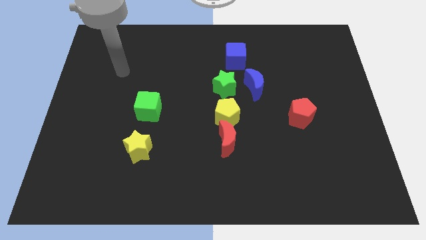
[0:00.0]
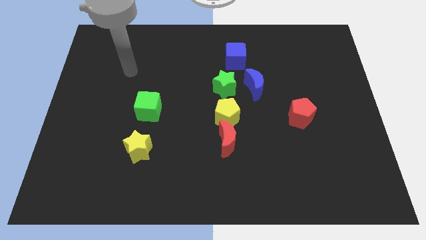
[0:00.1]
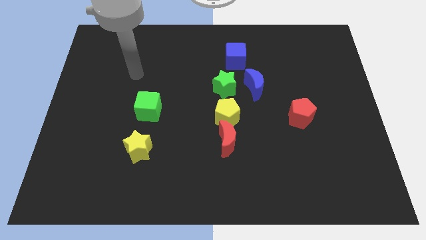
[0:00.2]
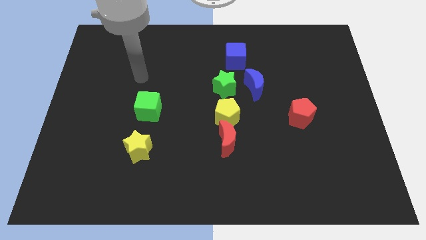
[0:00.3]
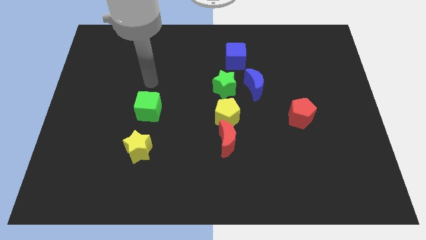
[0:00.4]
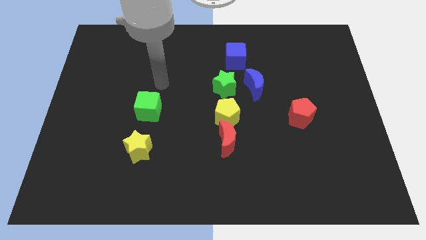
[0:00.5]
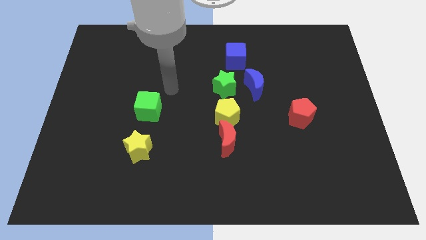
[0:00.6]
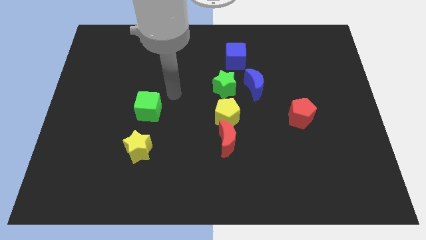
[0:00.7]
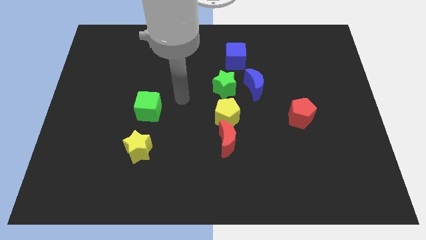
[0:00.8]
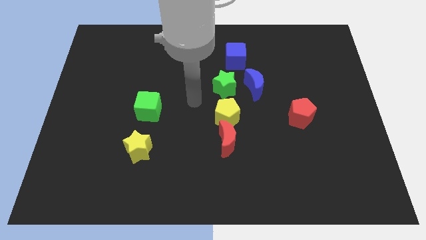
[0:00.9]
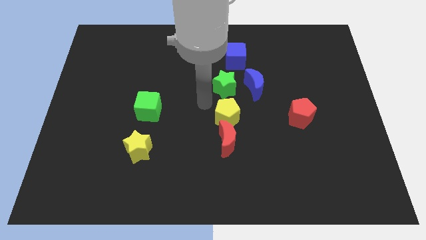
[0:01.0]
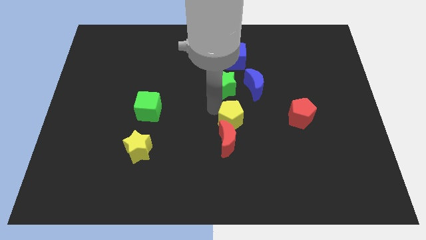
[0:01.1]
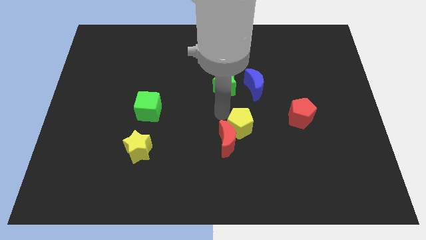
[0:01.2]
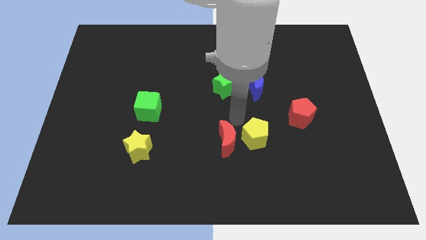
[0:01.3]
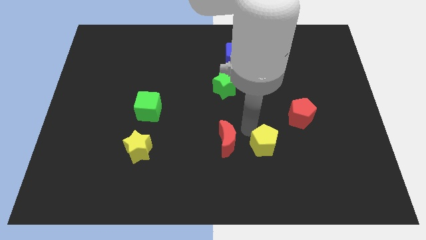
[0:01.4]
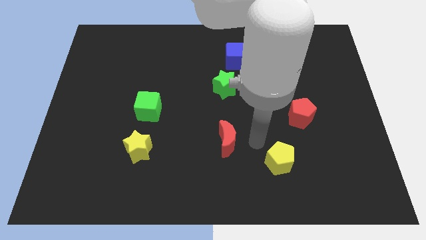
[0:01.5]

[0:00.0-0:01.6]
pull the red moon apart from the yellow pentagon

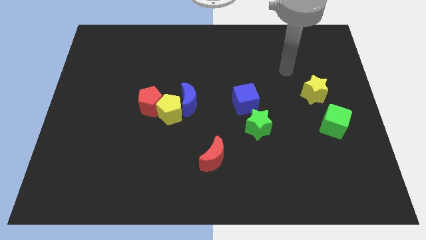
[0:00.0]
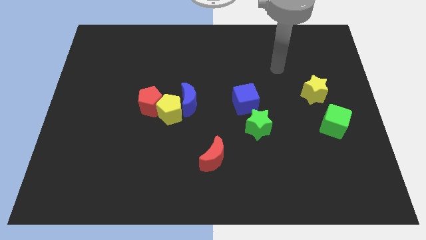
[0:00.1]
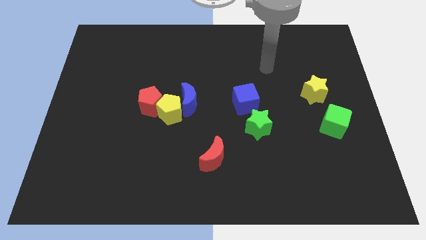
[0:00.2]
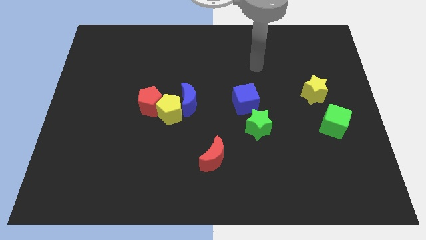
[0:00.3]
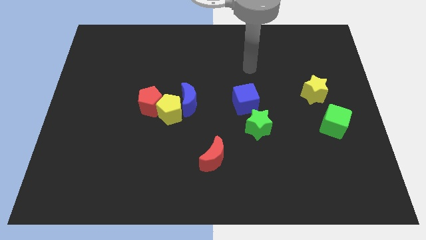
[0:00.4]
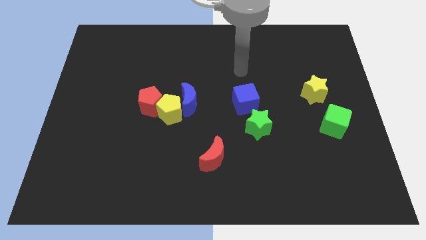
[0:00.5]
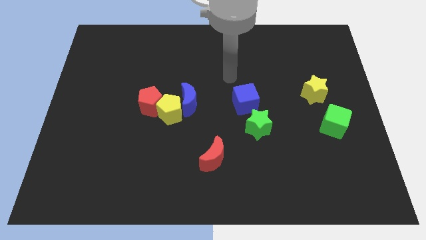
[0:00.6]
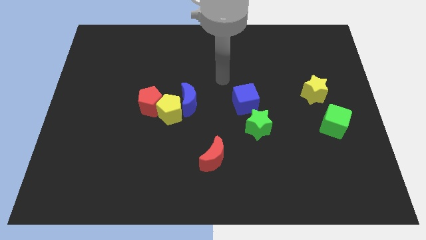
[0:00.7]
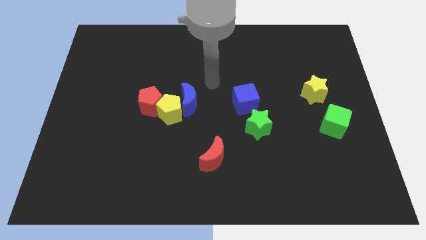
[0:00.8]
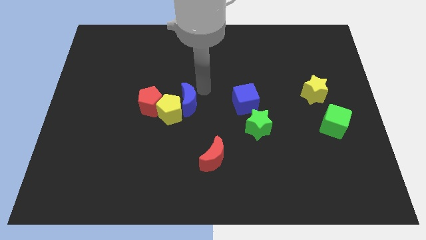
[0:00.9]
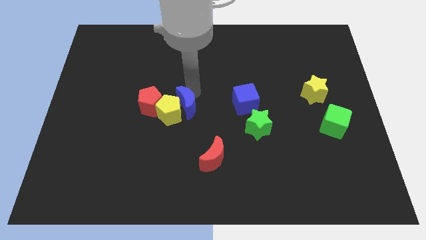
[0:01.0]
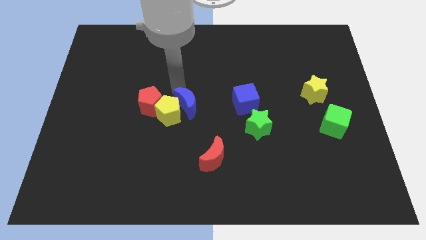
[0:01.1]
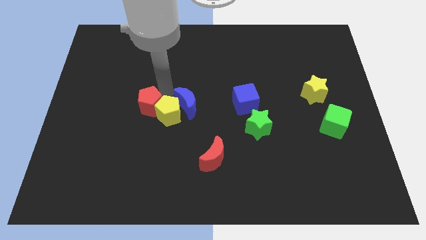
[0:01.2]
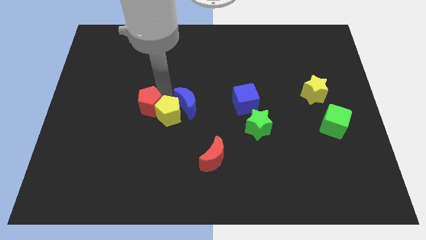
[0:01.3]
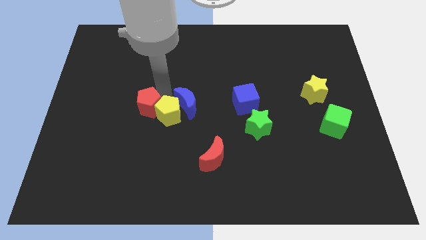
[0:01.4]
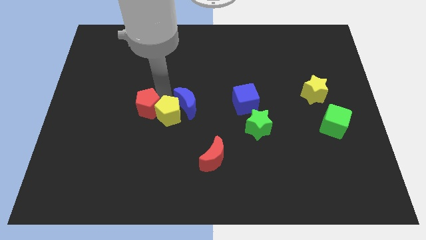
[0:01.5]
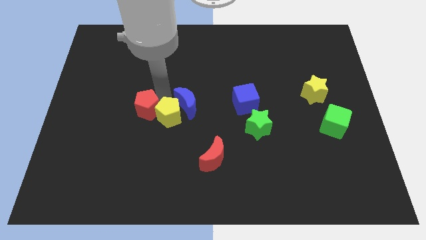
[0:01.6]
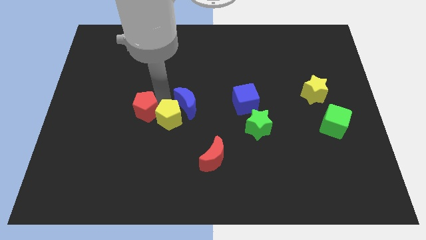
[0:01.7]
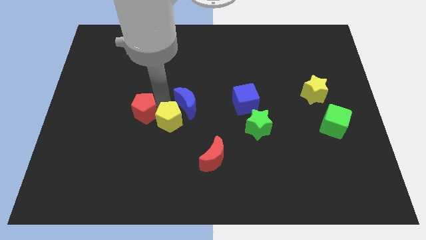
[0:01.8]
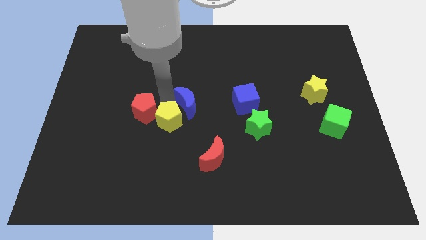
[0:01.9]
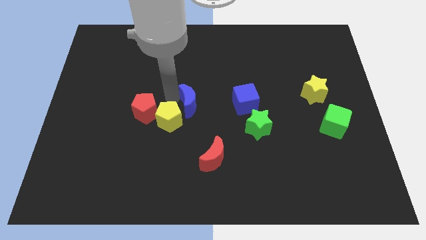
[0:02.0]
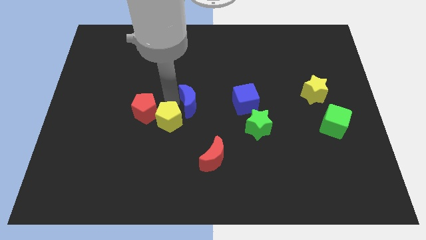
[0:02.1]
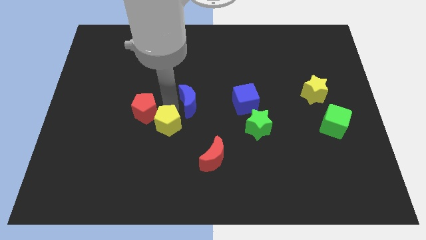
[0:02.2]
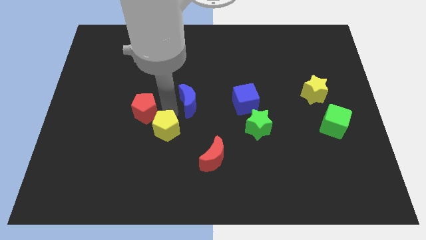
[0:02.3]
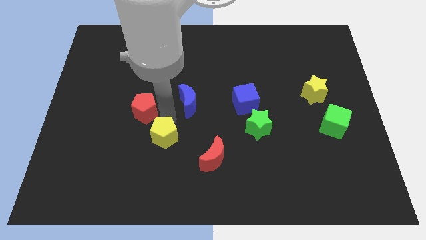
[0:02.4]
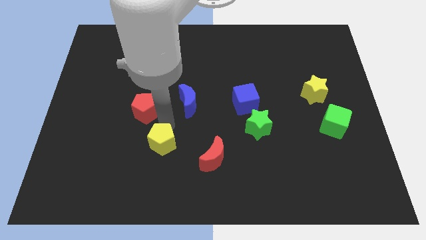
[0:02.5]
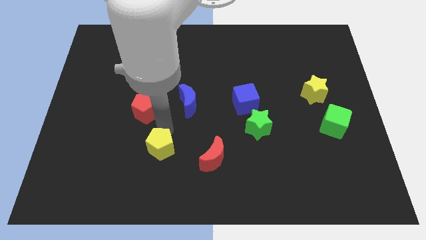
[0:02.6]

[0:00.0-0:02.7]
move the yellow pentagon away from the blue moon and red pentagon

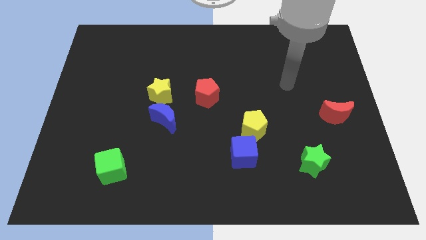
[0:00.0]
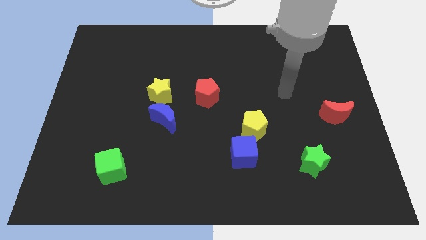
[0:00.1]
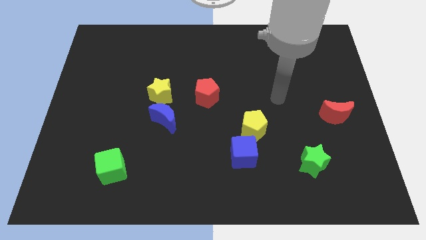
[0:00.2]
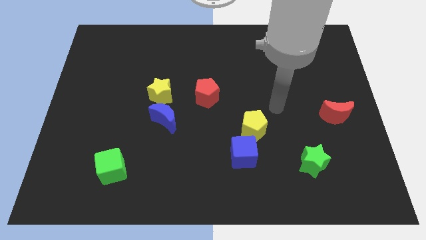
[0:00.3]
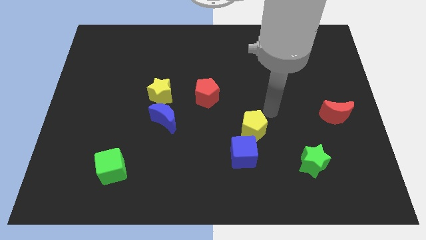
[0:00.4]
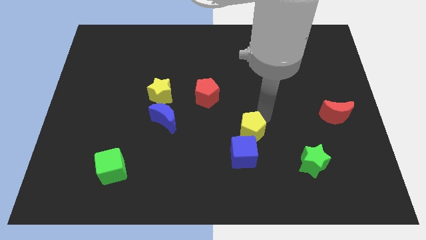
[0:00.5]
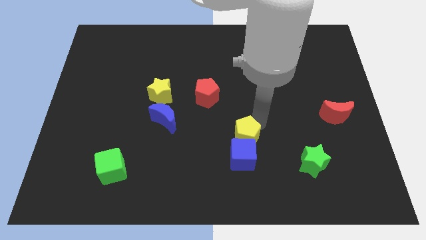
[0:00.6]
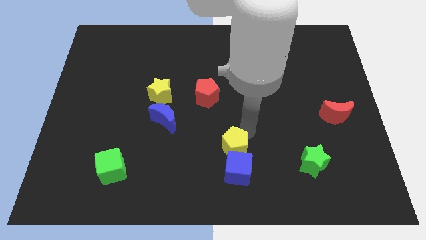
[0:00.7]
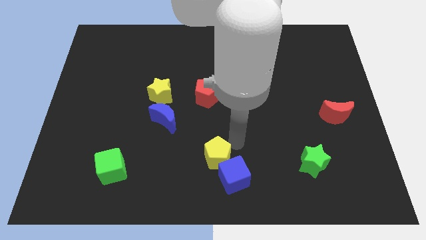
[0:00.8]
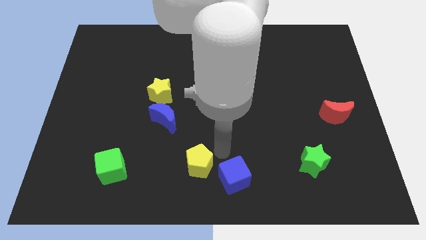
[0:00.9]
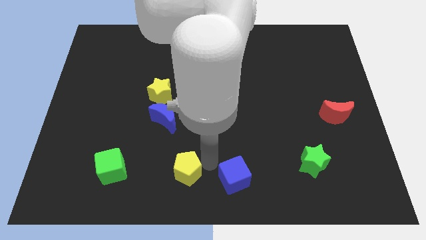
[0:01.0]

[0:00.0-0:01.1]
move the blue cube away from the yellow pentagon

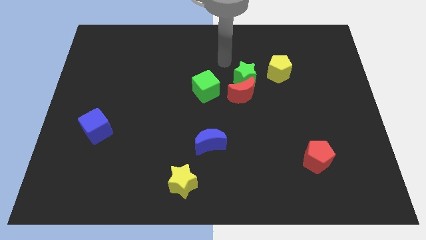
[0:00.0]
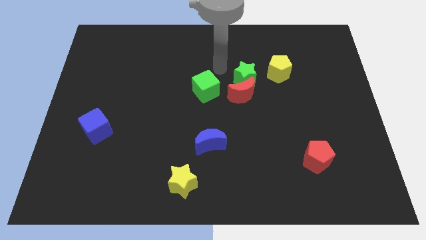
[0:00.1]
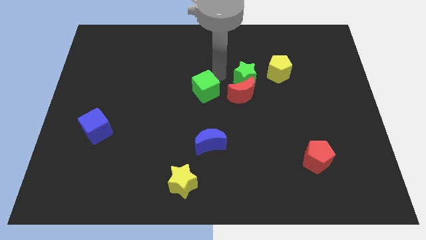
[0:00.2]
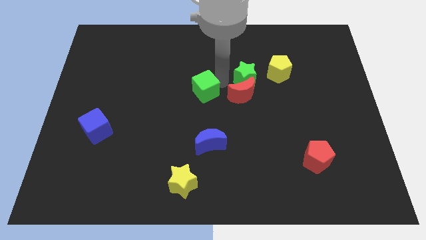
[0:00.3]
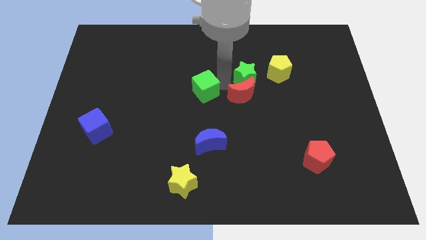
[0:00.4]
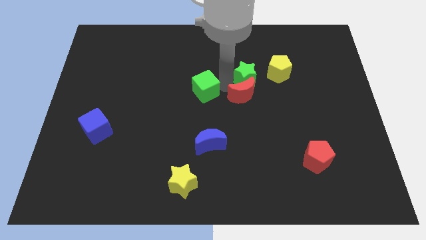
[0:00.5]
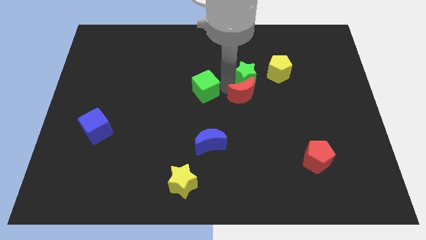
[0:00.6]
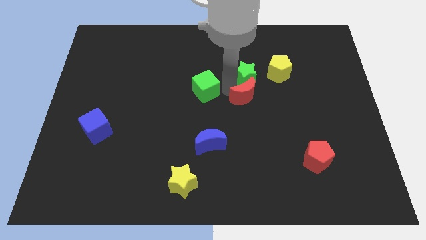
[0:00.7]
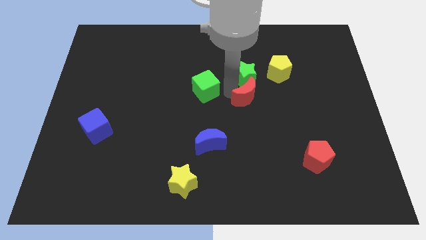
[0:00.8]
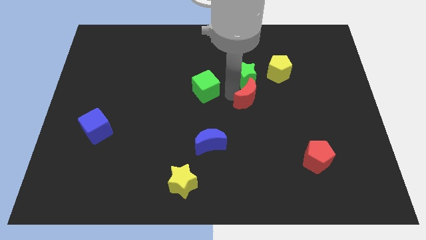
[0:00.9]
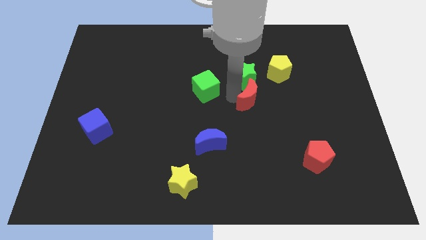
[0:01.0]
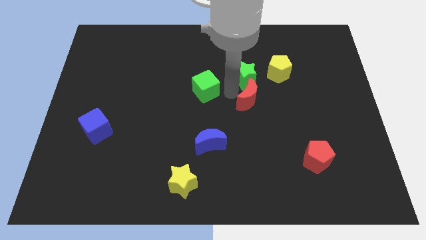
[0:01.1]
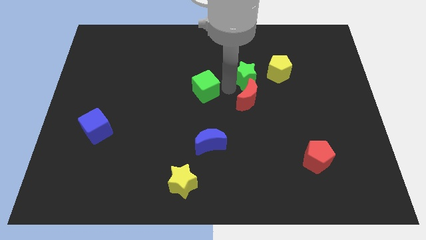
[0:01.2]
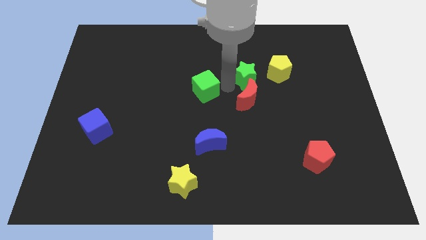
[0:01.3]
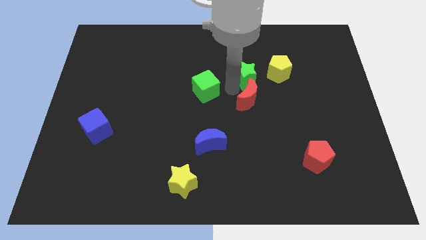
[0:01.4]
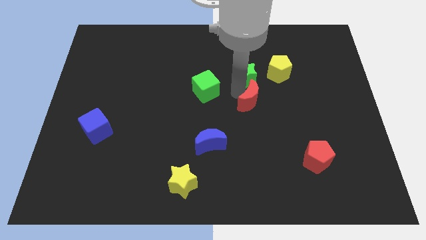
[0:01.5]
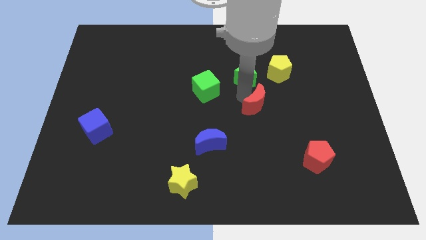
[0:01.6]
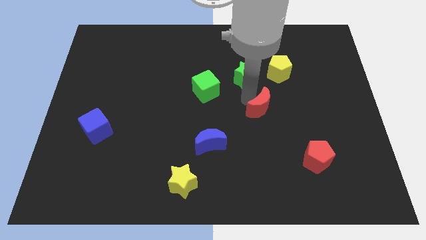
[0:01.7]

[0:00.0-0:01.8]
move the red moon away from the green star and green cube

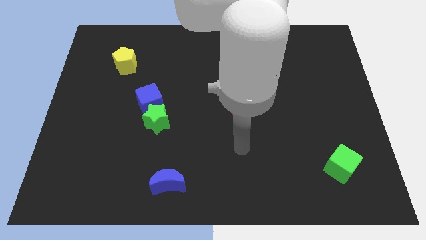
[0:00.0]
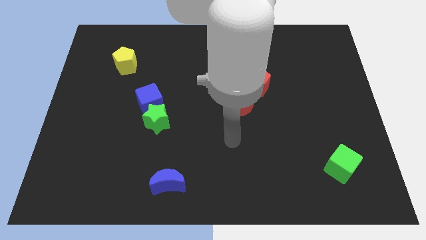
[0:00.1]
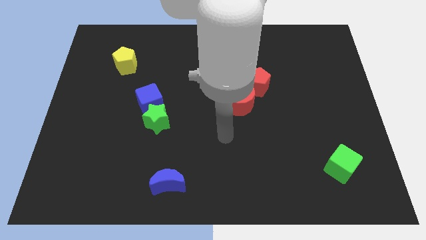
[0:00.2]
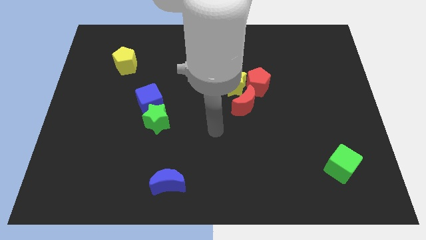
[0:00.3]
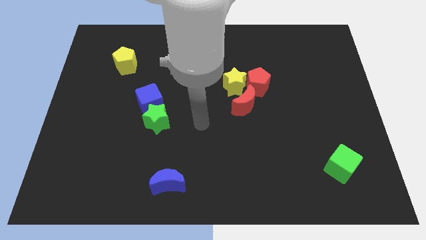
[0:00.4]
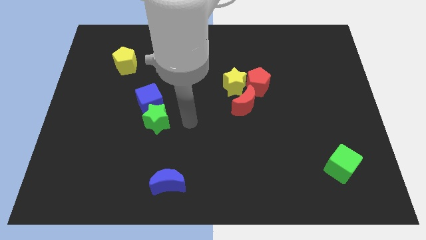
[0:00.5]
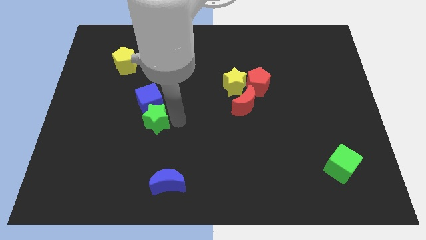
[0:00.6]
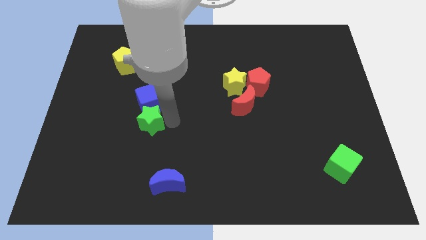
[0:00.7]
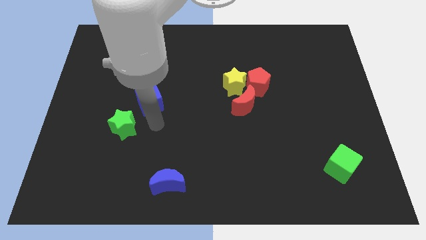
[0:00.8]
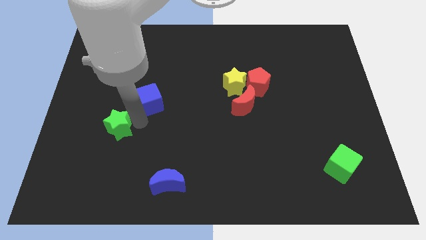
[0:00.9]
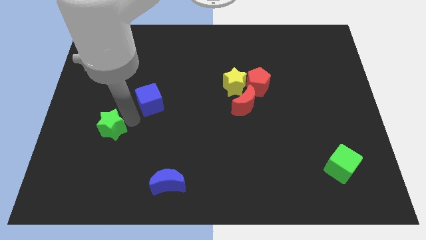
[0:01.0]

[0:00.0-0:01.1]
pull the blue cube apart from the green star

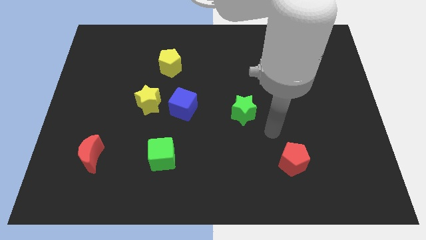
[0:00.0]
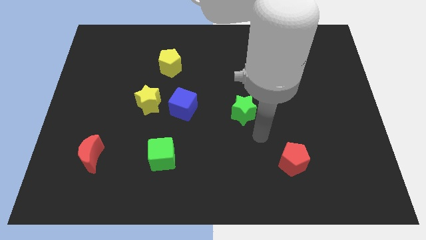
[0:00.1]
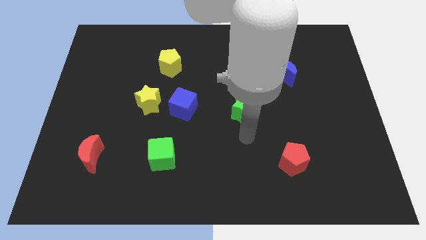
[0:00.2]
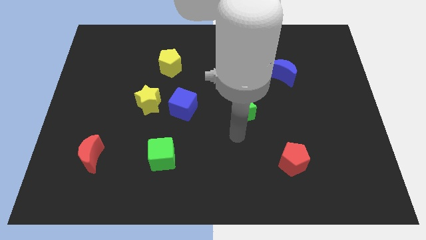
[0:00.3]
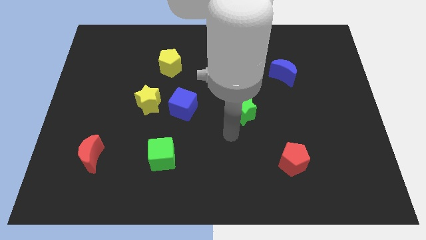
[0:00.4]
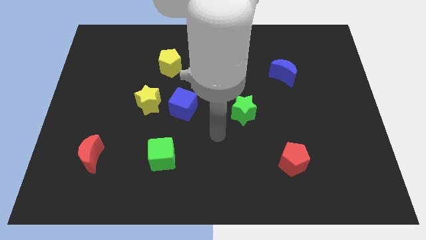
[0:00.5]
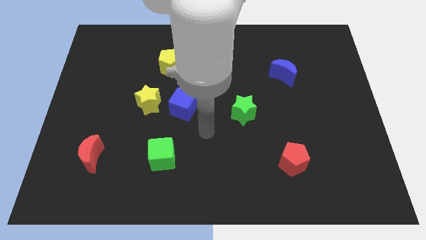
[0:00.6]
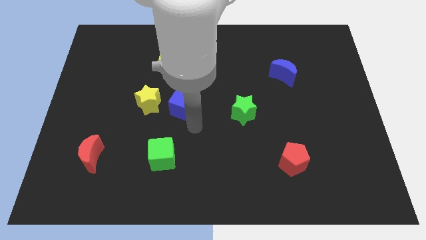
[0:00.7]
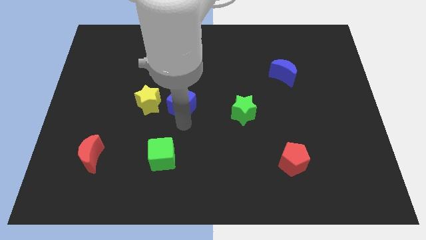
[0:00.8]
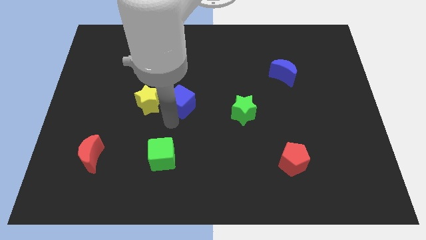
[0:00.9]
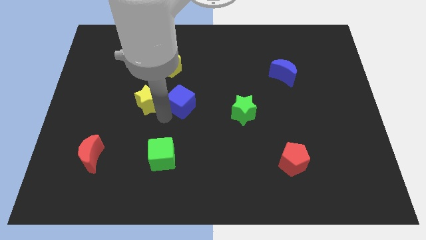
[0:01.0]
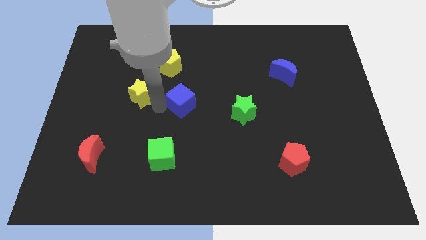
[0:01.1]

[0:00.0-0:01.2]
move the blue cube away from the yellow star
